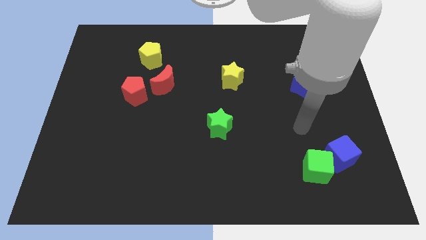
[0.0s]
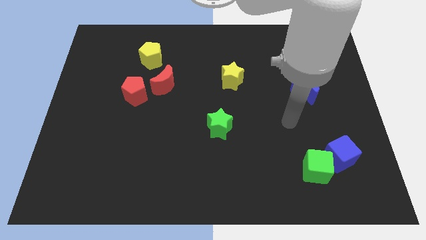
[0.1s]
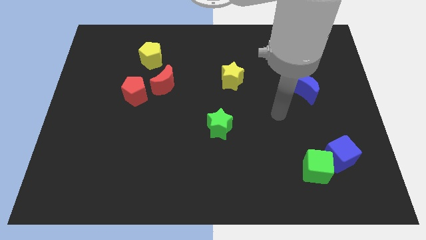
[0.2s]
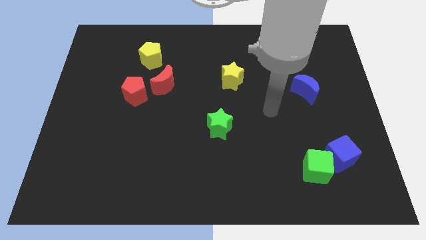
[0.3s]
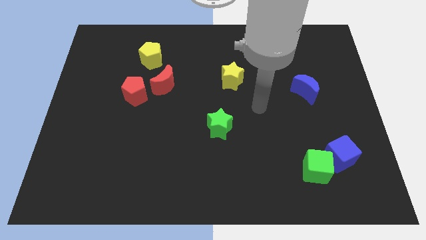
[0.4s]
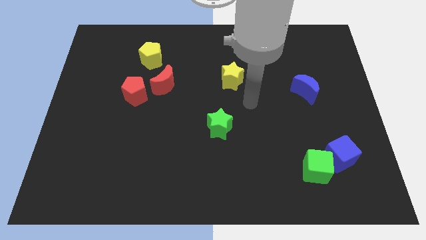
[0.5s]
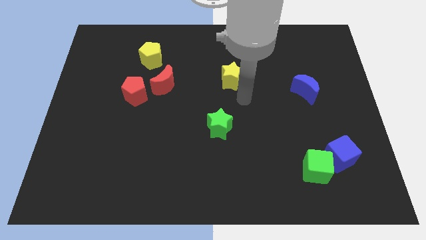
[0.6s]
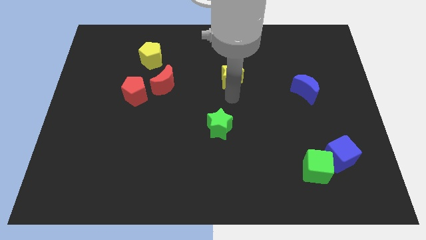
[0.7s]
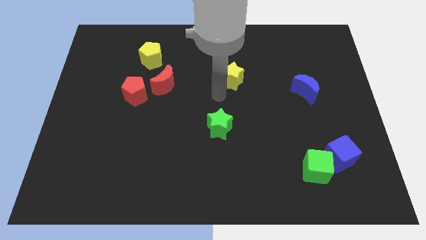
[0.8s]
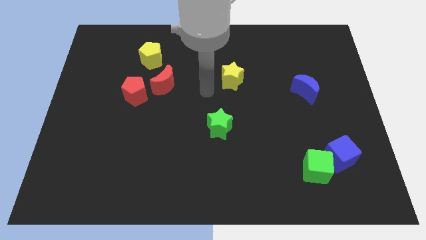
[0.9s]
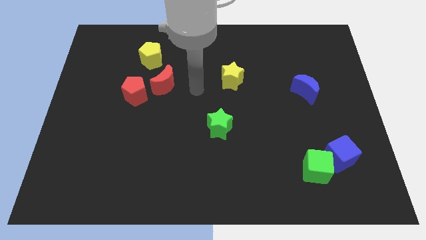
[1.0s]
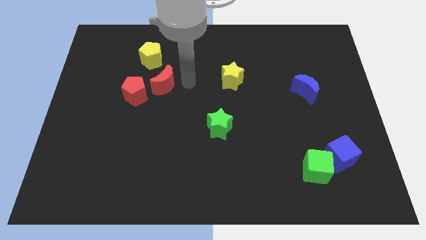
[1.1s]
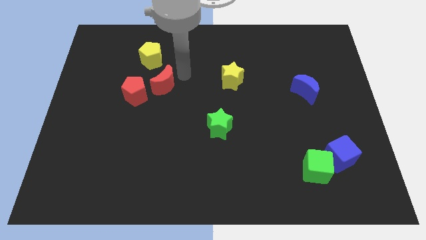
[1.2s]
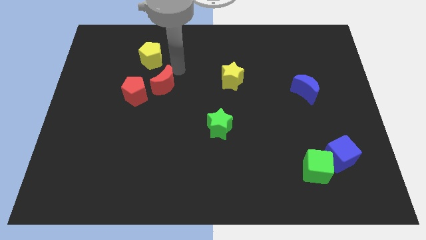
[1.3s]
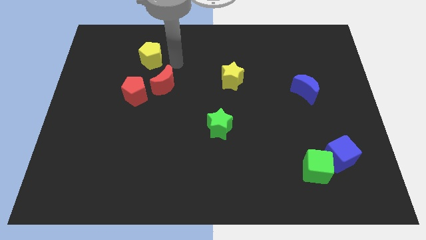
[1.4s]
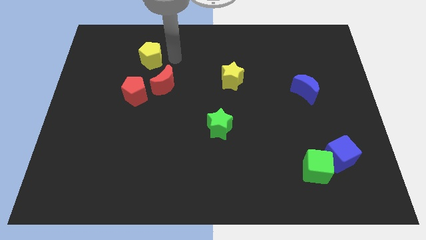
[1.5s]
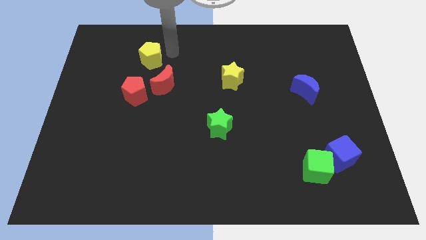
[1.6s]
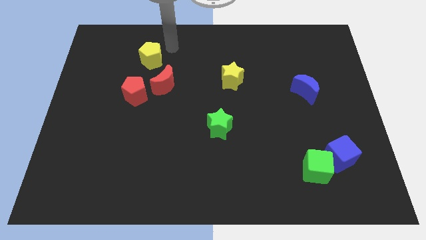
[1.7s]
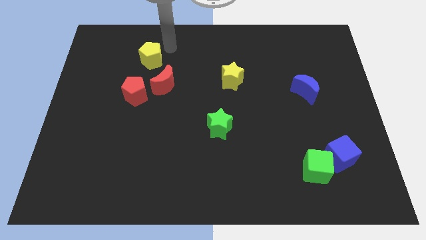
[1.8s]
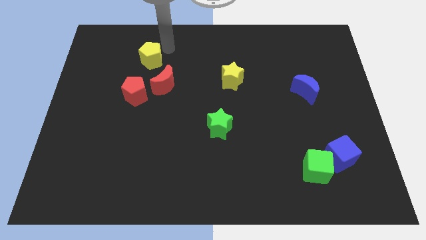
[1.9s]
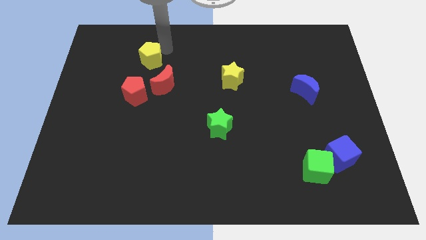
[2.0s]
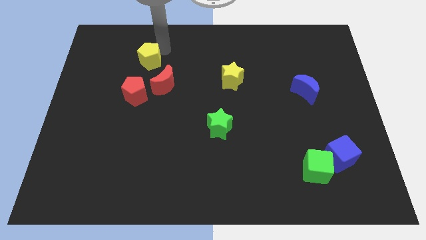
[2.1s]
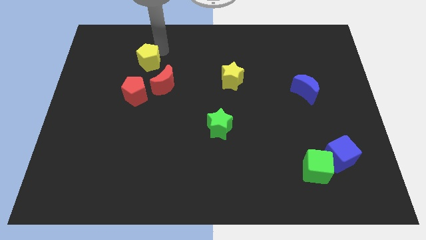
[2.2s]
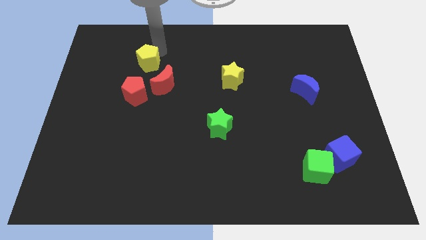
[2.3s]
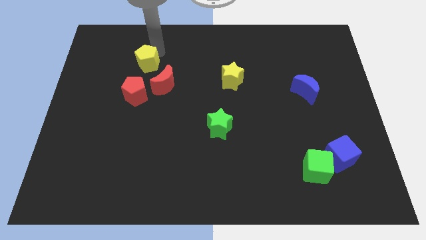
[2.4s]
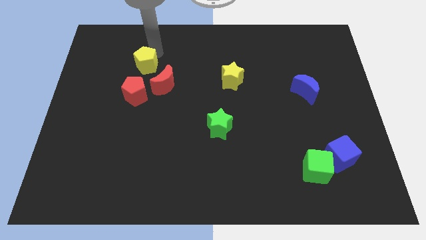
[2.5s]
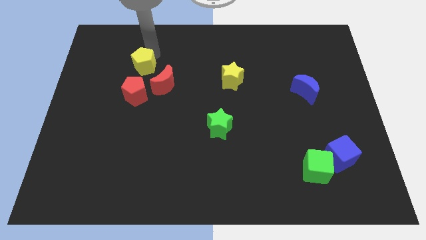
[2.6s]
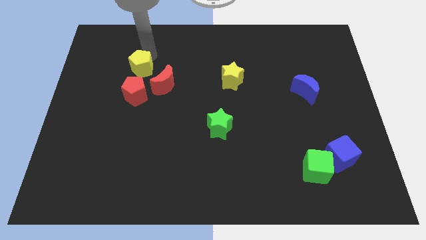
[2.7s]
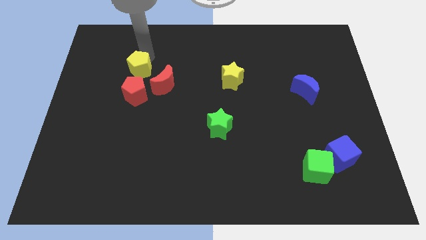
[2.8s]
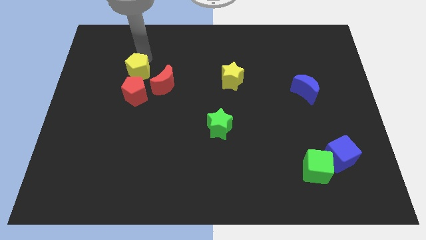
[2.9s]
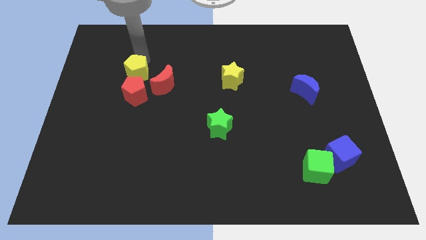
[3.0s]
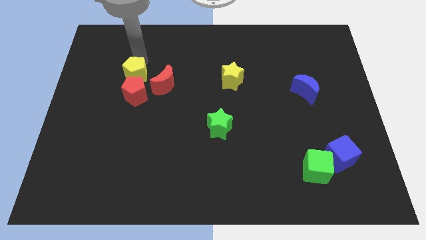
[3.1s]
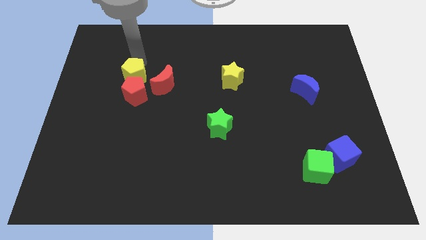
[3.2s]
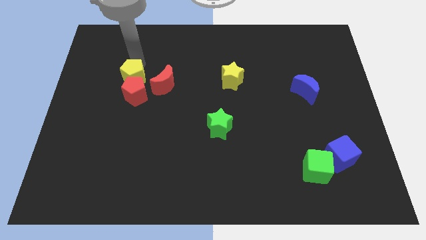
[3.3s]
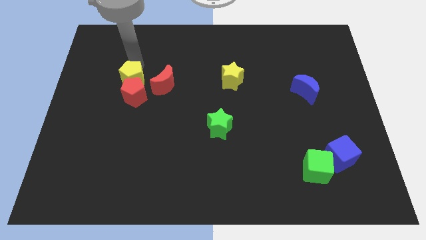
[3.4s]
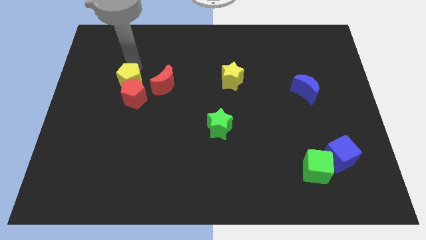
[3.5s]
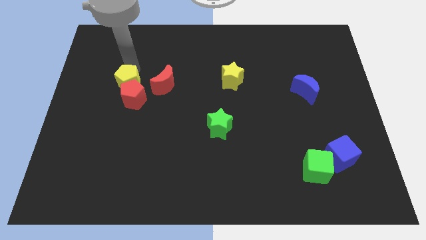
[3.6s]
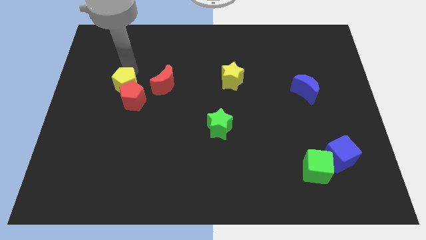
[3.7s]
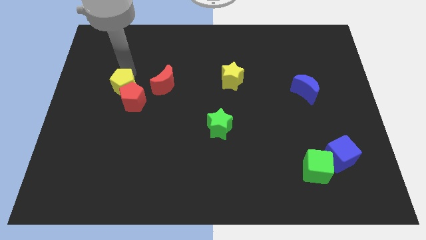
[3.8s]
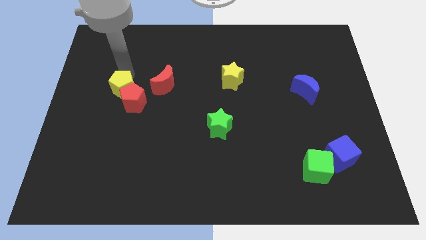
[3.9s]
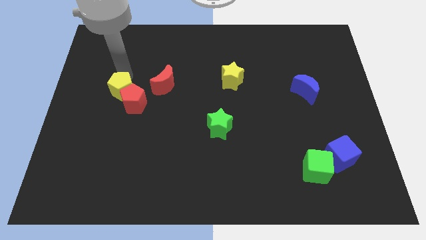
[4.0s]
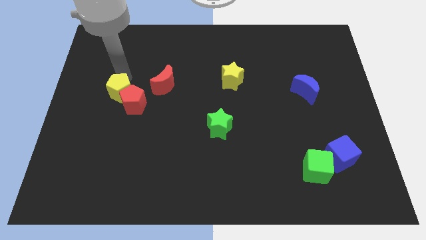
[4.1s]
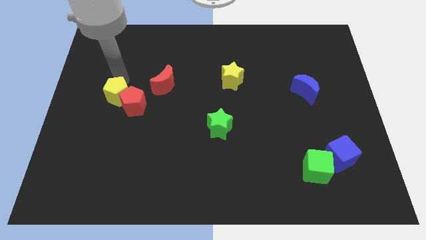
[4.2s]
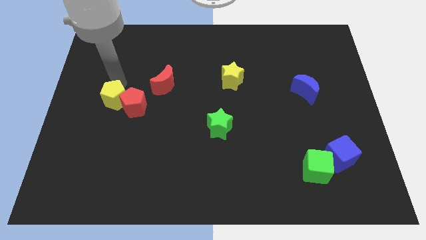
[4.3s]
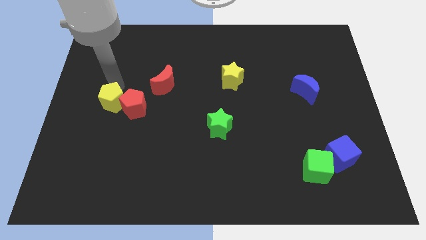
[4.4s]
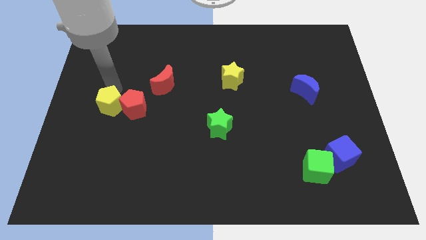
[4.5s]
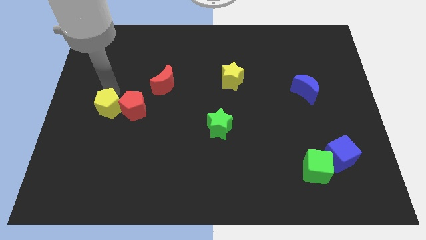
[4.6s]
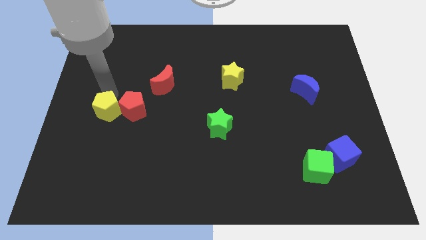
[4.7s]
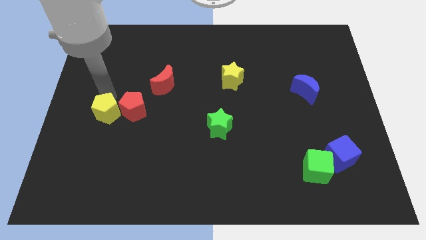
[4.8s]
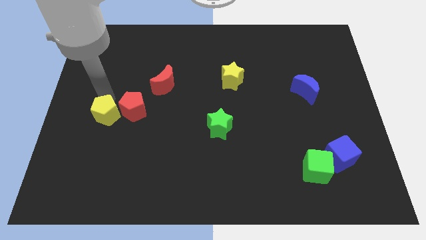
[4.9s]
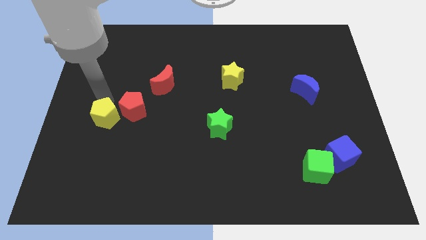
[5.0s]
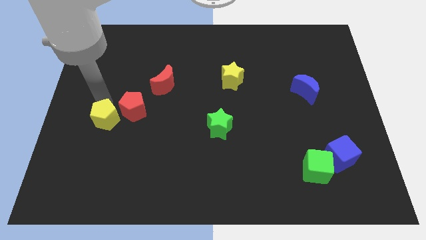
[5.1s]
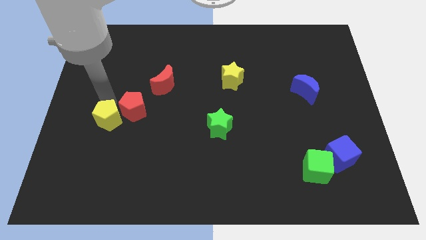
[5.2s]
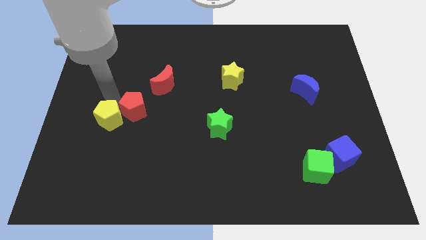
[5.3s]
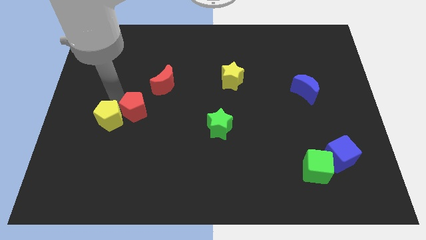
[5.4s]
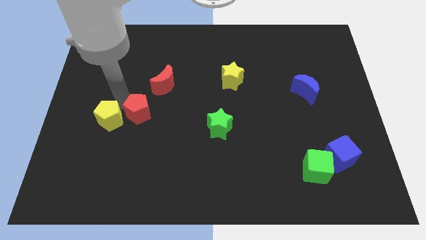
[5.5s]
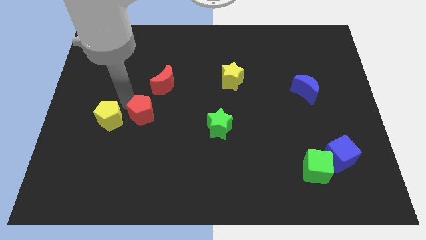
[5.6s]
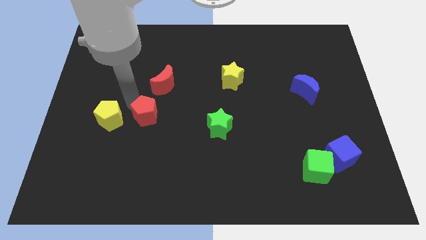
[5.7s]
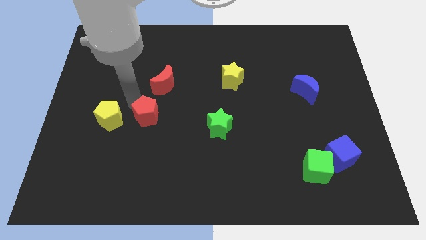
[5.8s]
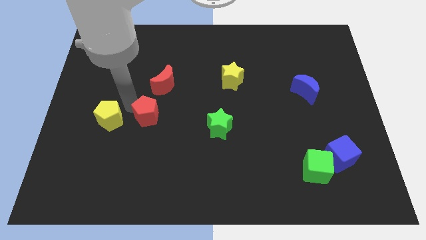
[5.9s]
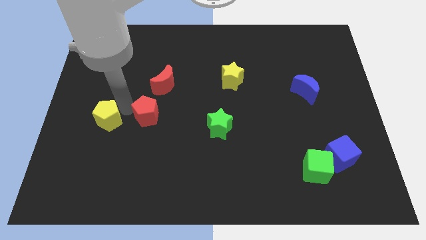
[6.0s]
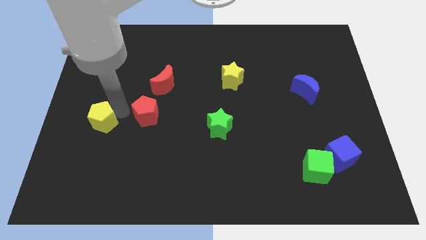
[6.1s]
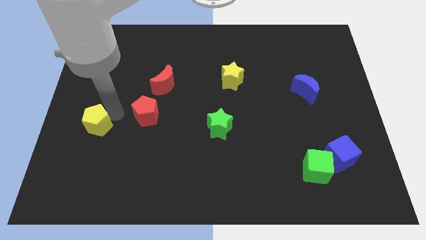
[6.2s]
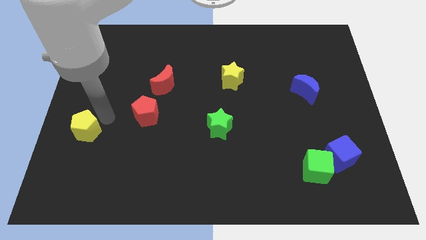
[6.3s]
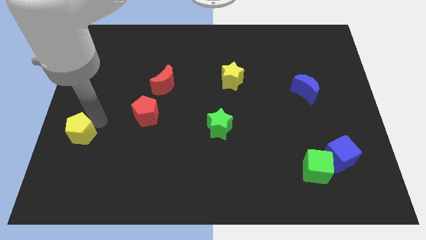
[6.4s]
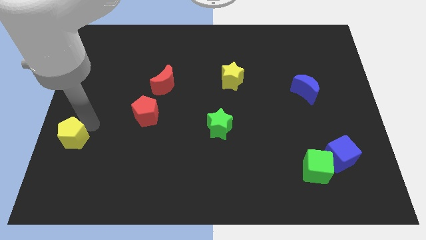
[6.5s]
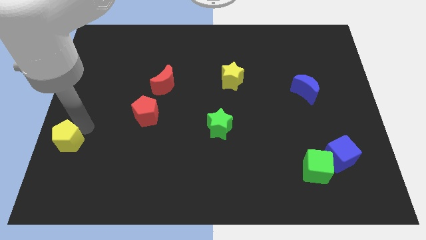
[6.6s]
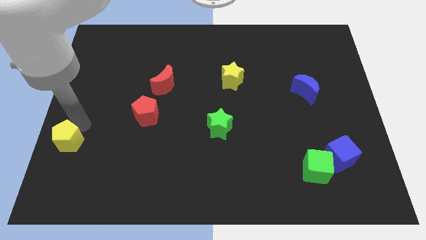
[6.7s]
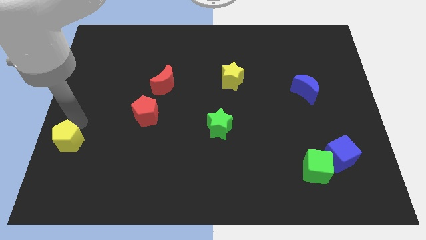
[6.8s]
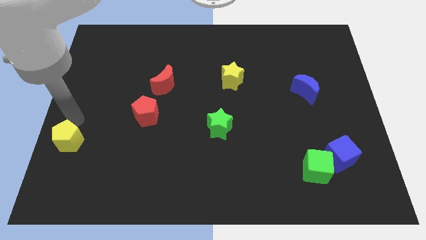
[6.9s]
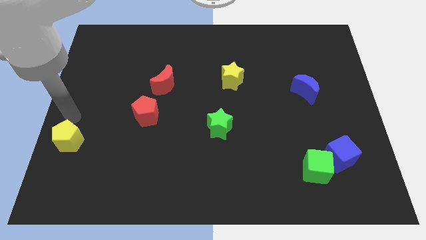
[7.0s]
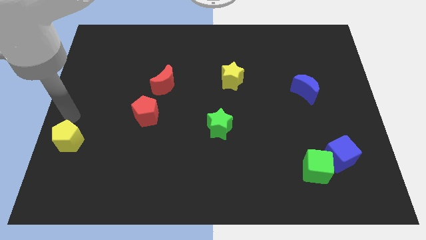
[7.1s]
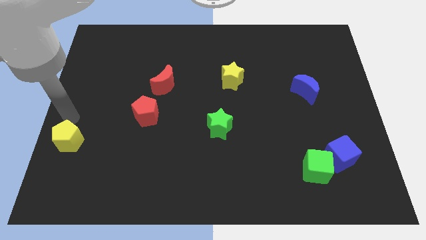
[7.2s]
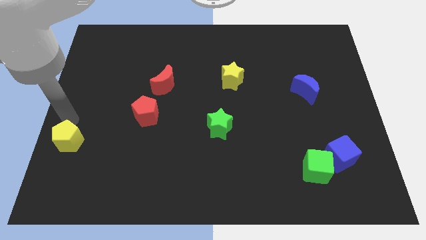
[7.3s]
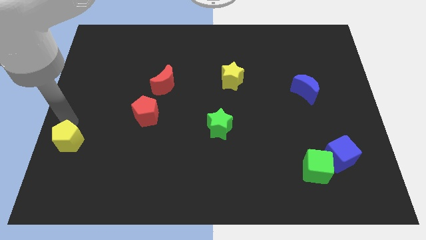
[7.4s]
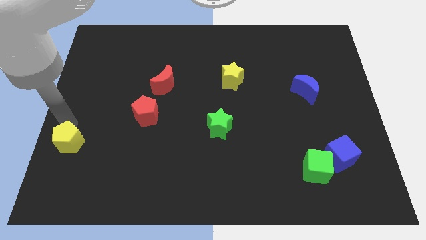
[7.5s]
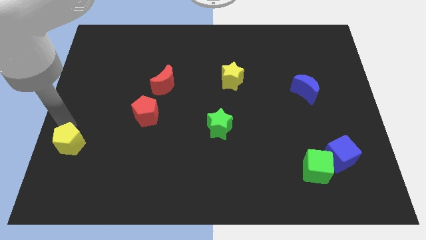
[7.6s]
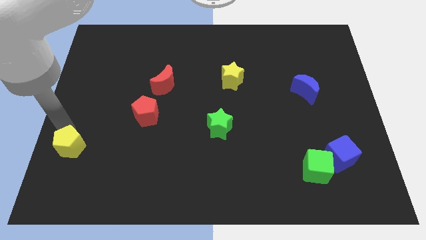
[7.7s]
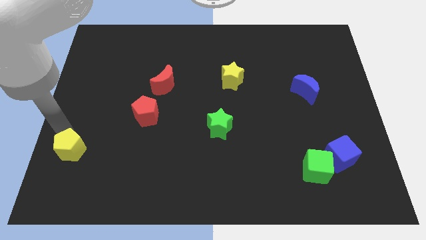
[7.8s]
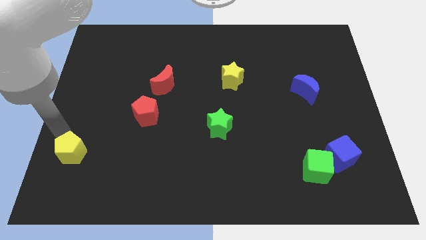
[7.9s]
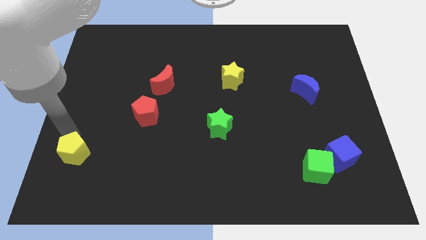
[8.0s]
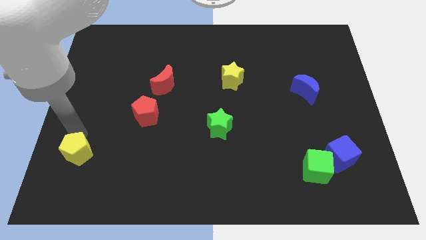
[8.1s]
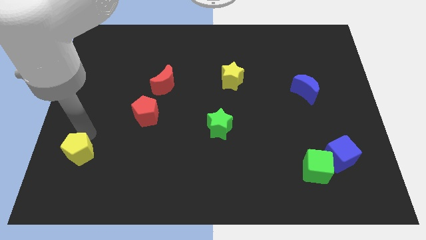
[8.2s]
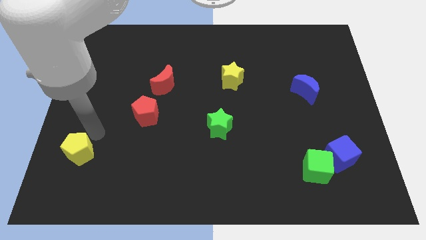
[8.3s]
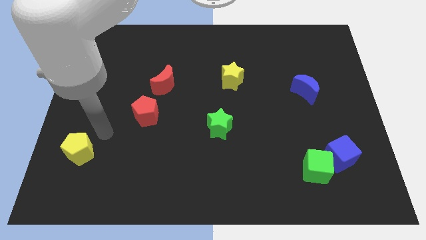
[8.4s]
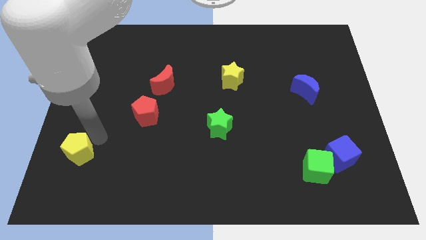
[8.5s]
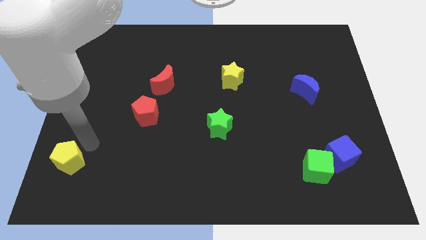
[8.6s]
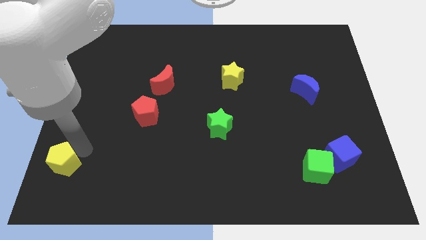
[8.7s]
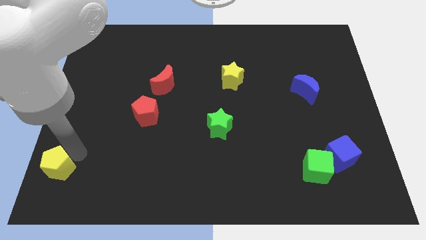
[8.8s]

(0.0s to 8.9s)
slide the yellow pentagon to the bottom left of the board
